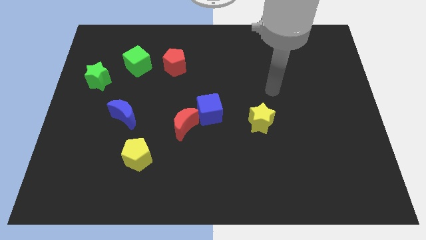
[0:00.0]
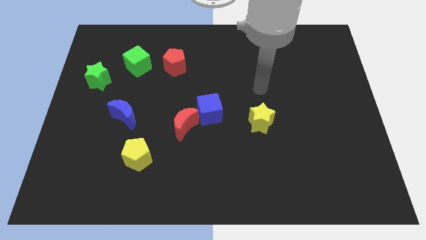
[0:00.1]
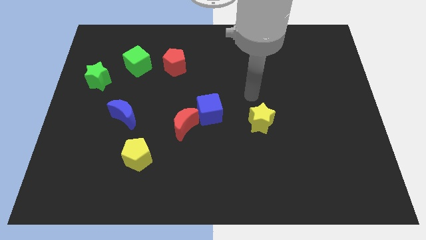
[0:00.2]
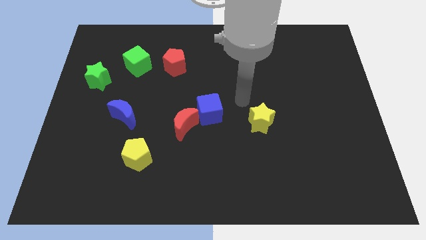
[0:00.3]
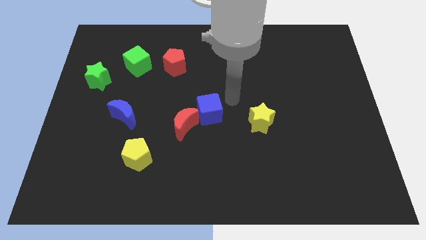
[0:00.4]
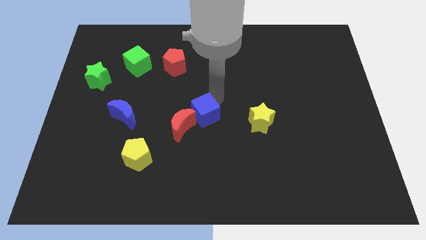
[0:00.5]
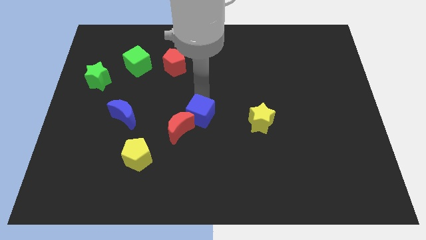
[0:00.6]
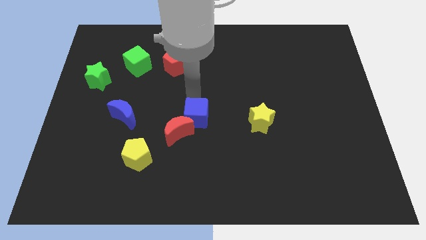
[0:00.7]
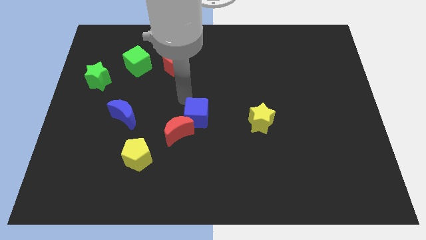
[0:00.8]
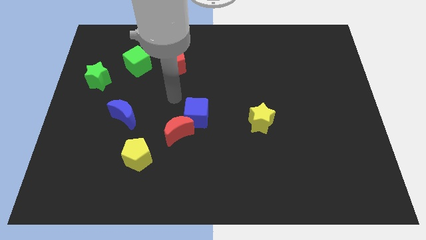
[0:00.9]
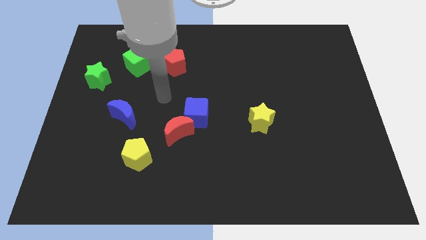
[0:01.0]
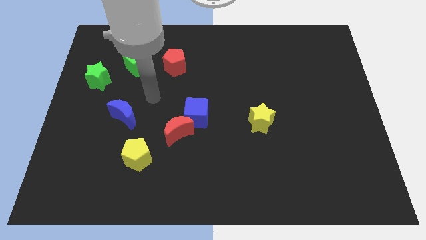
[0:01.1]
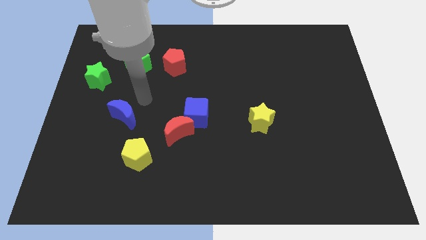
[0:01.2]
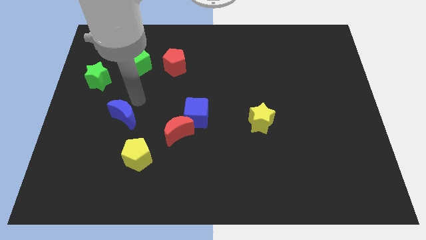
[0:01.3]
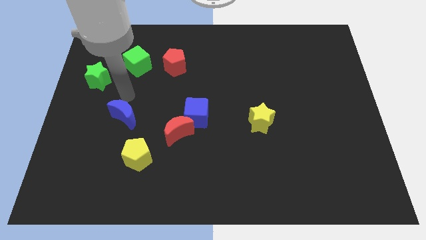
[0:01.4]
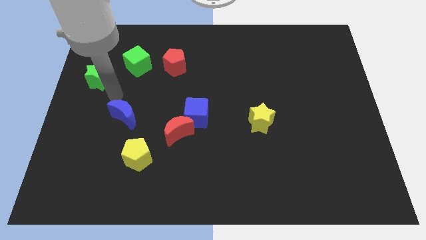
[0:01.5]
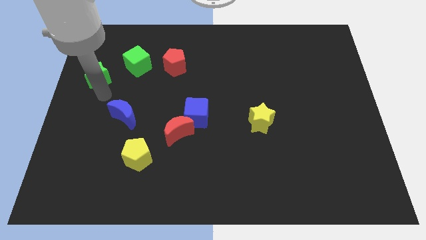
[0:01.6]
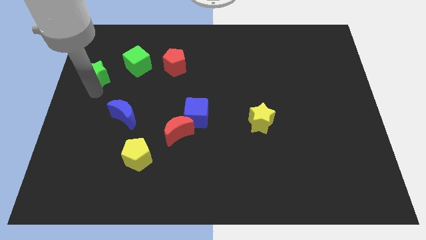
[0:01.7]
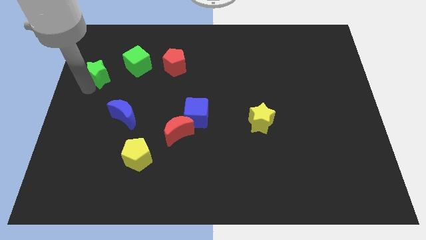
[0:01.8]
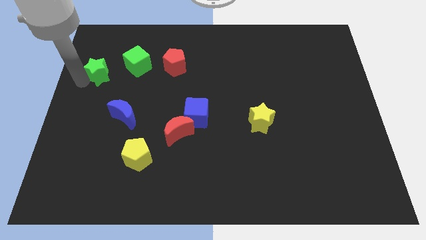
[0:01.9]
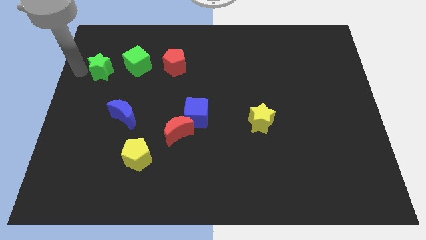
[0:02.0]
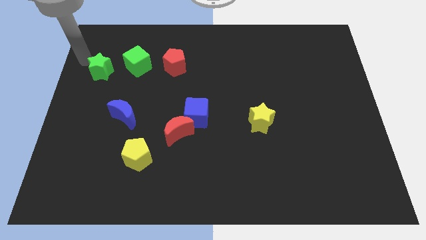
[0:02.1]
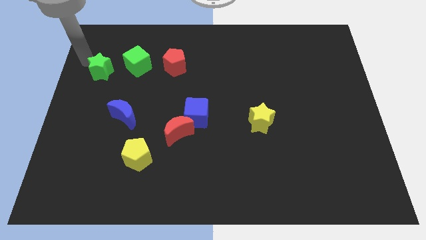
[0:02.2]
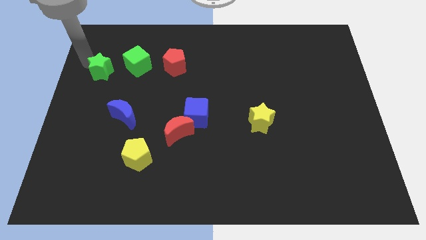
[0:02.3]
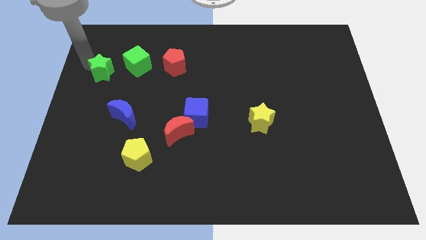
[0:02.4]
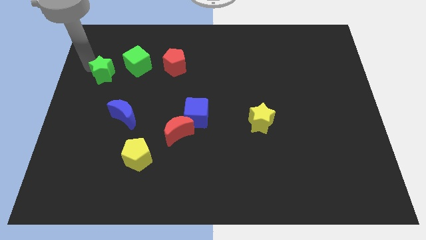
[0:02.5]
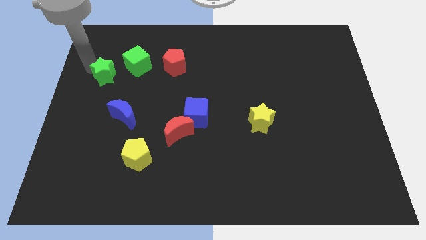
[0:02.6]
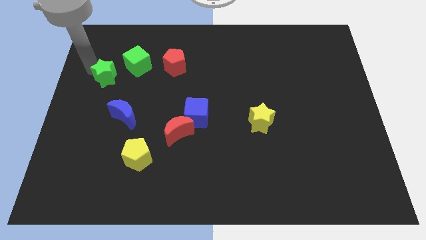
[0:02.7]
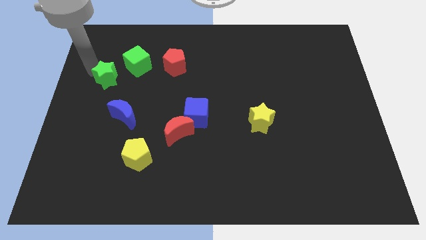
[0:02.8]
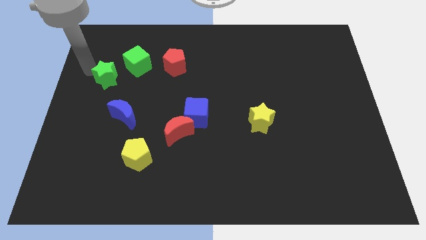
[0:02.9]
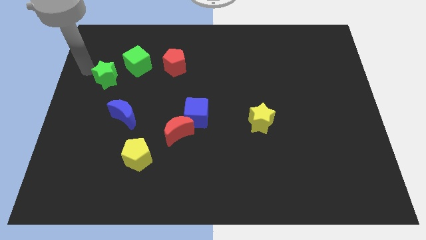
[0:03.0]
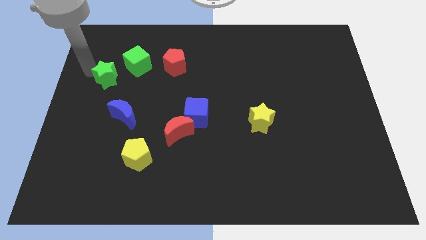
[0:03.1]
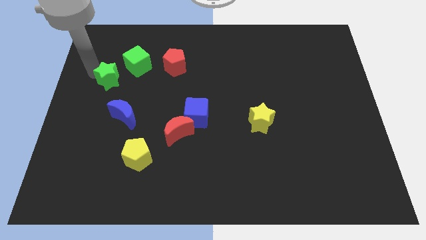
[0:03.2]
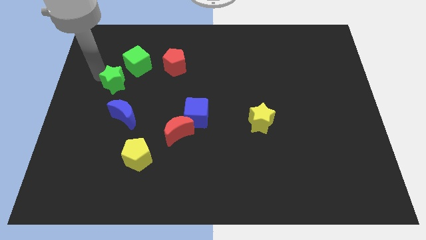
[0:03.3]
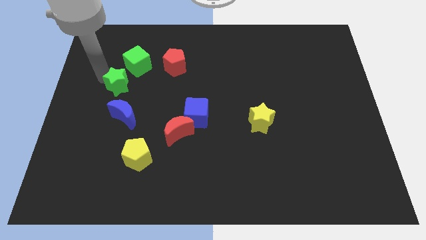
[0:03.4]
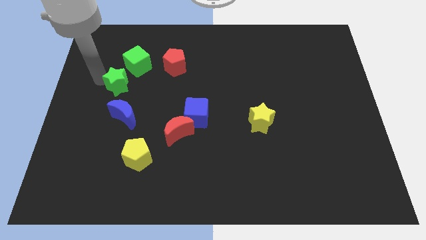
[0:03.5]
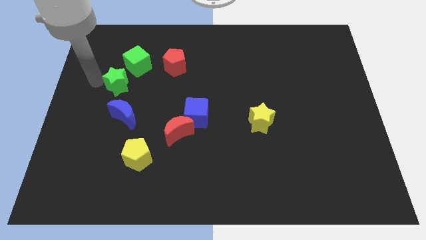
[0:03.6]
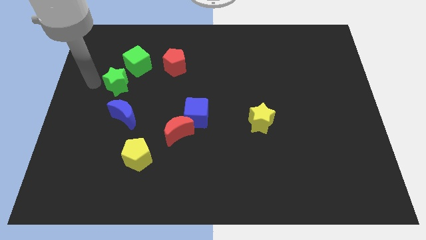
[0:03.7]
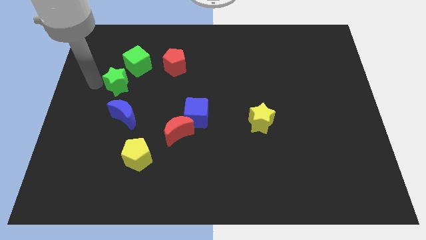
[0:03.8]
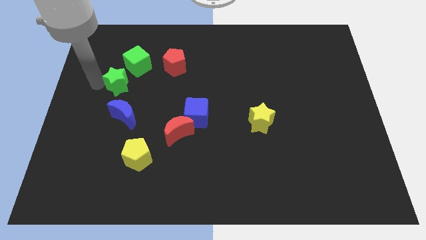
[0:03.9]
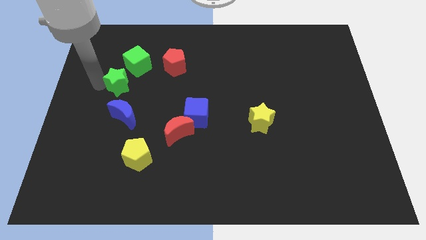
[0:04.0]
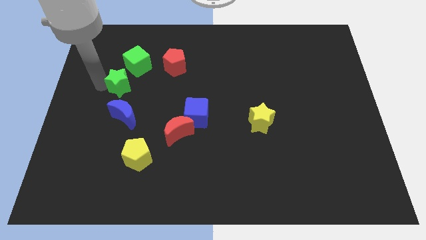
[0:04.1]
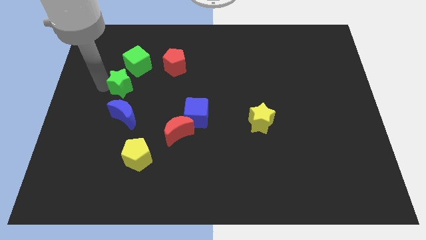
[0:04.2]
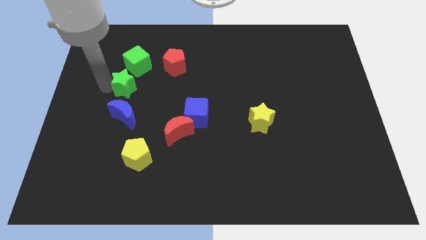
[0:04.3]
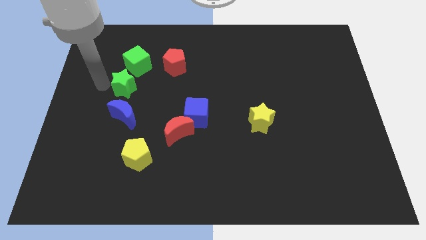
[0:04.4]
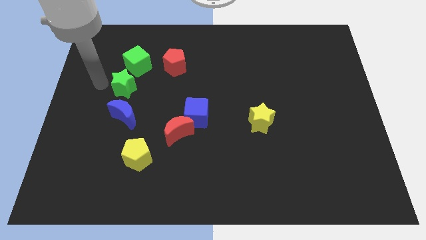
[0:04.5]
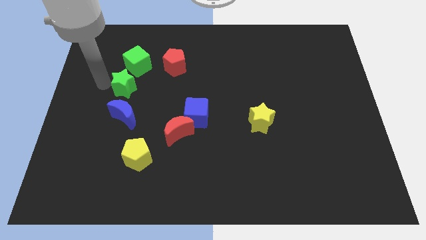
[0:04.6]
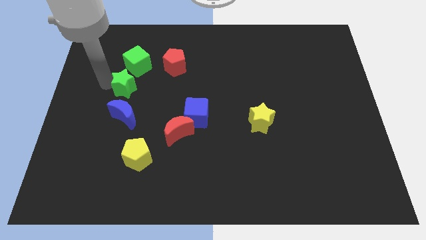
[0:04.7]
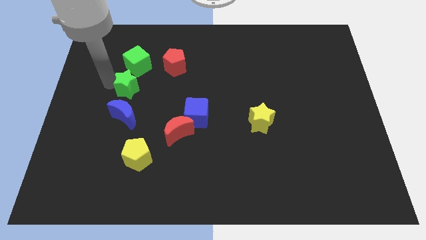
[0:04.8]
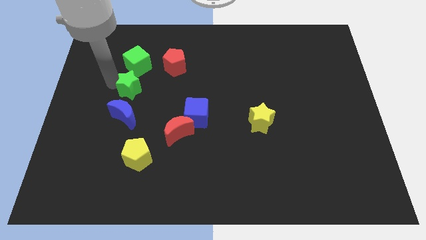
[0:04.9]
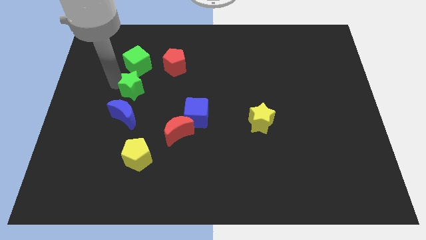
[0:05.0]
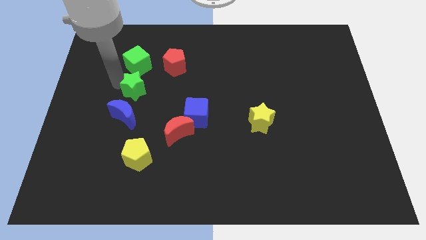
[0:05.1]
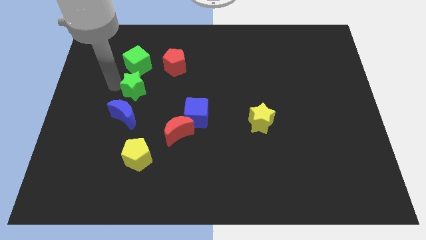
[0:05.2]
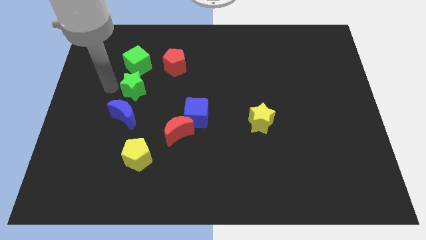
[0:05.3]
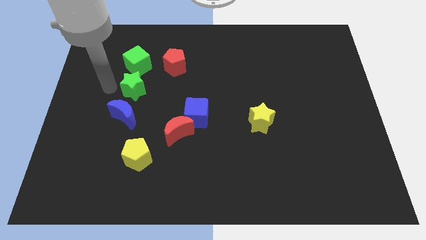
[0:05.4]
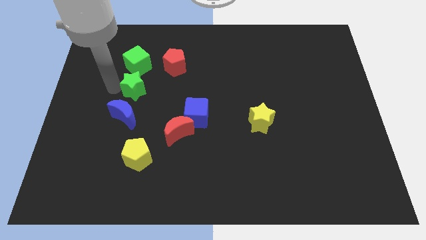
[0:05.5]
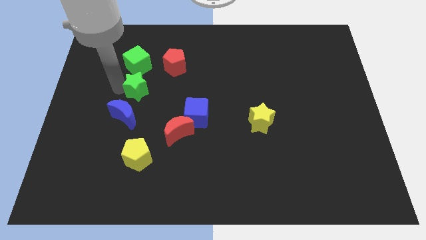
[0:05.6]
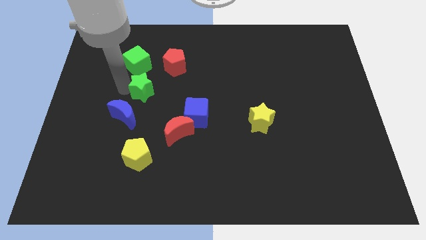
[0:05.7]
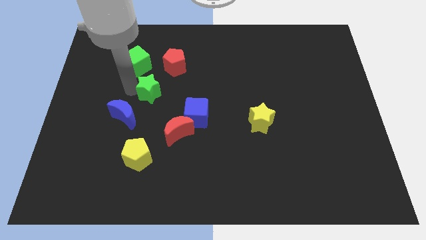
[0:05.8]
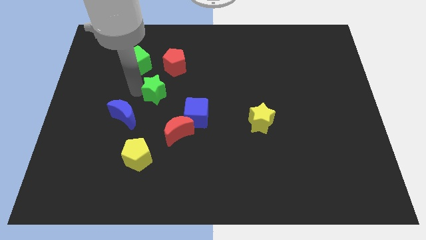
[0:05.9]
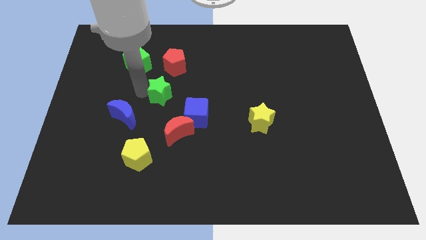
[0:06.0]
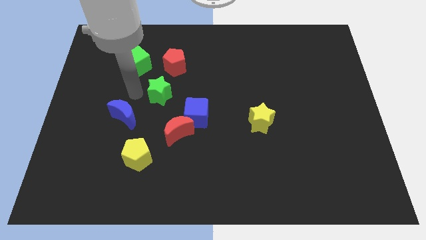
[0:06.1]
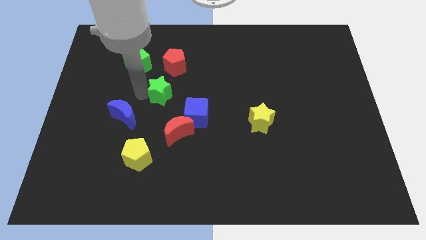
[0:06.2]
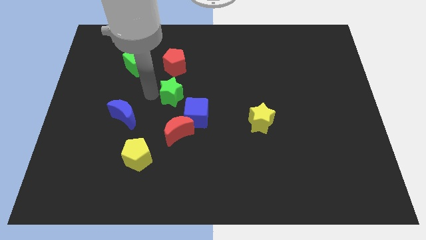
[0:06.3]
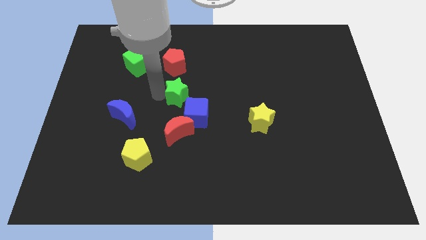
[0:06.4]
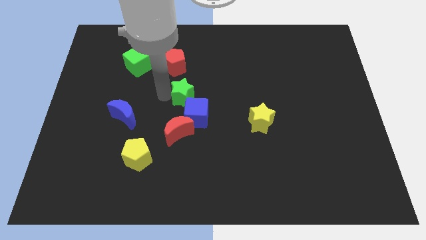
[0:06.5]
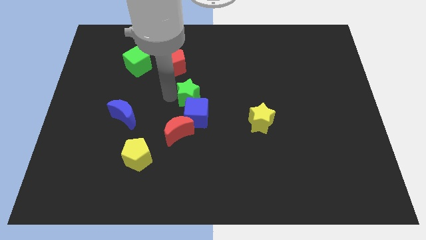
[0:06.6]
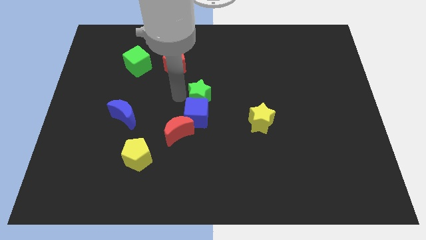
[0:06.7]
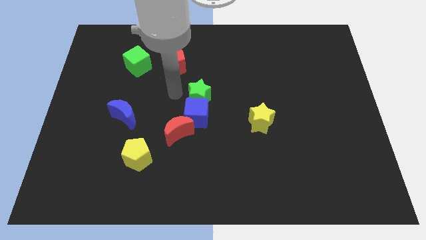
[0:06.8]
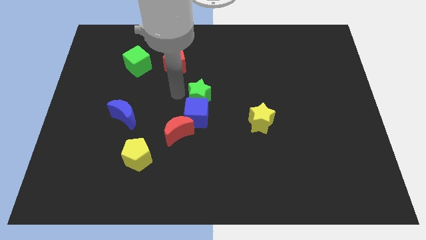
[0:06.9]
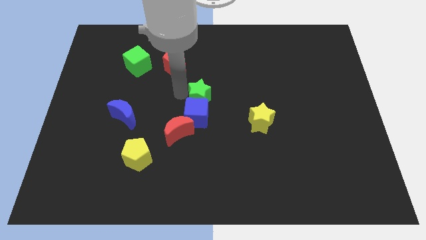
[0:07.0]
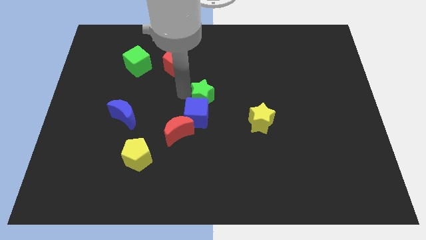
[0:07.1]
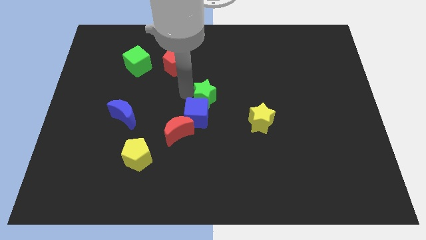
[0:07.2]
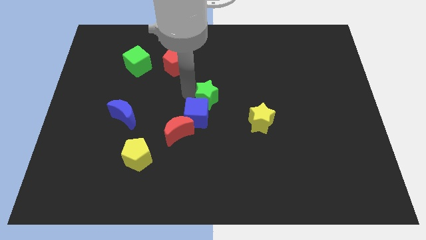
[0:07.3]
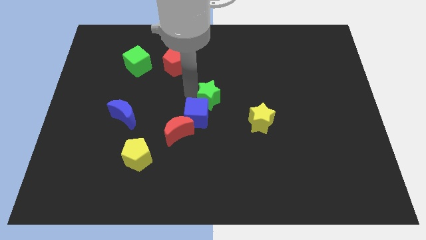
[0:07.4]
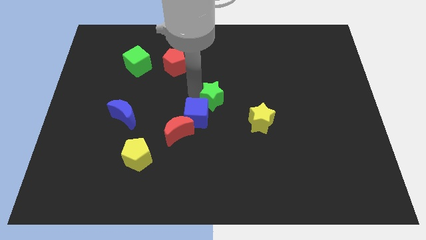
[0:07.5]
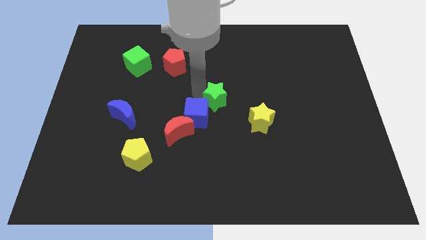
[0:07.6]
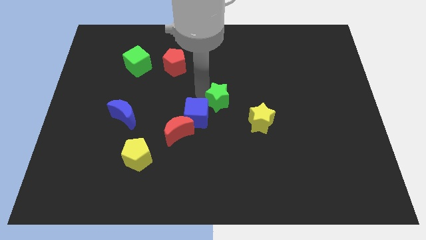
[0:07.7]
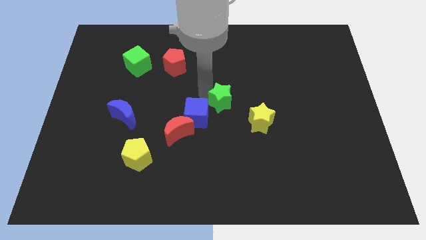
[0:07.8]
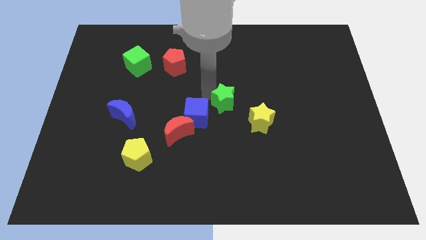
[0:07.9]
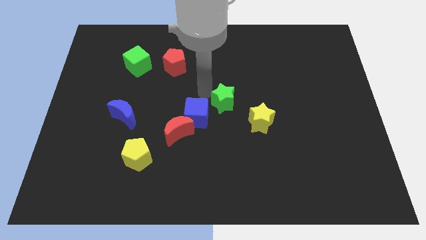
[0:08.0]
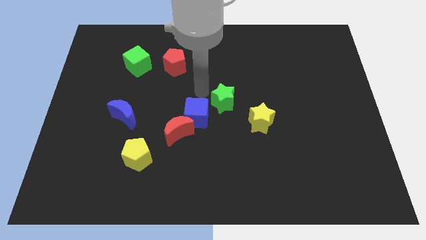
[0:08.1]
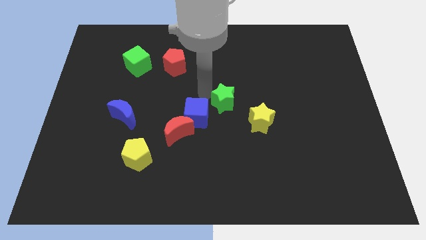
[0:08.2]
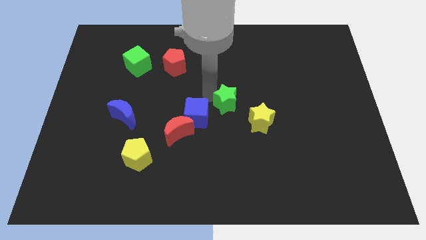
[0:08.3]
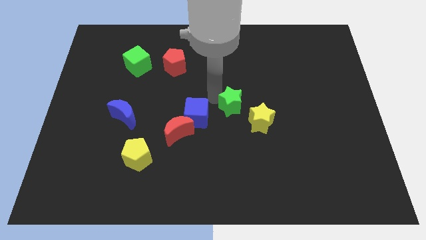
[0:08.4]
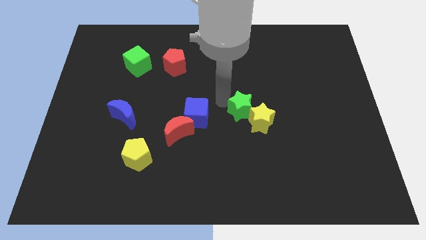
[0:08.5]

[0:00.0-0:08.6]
slide the green star to the yellow star
